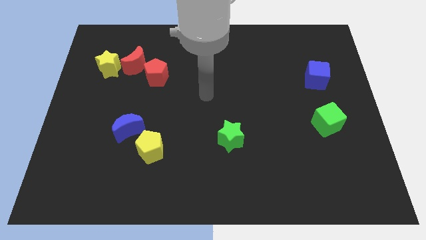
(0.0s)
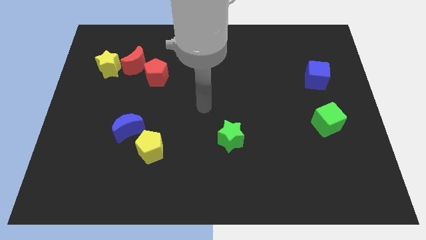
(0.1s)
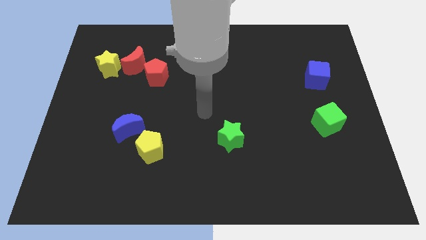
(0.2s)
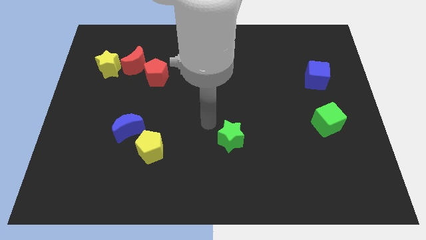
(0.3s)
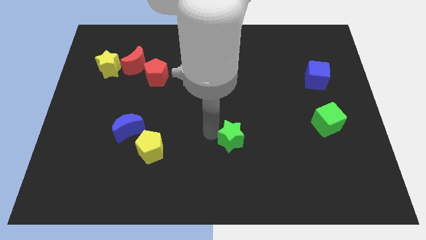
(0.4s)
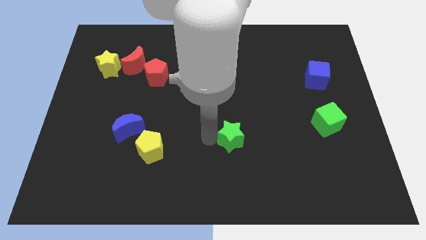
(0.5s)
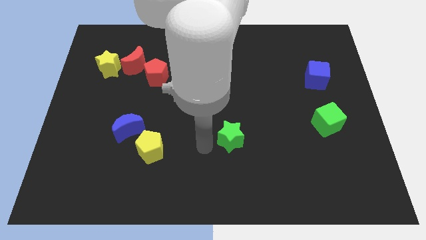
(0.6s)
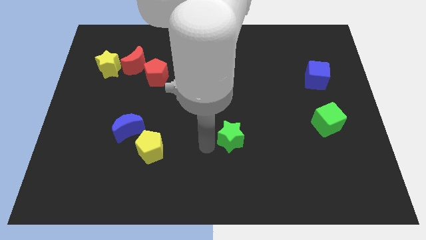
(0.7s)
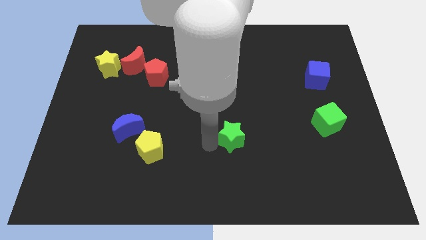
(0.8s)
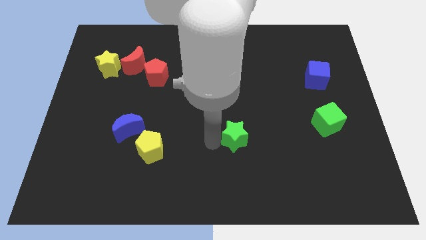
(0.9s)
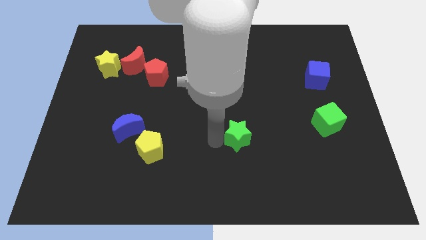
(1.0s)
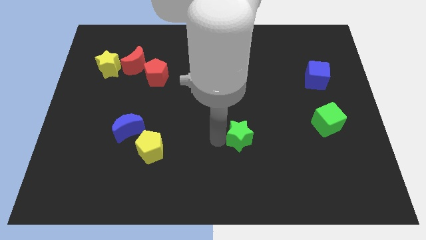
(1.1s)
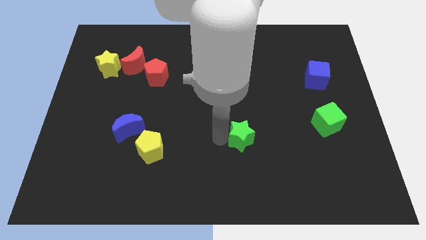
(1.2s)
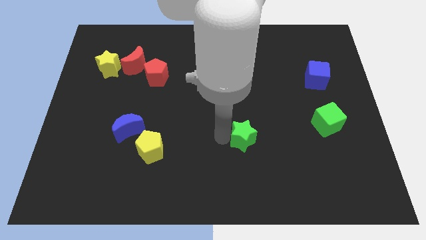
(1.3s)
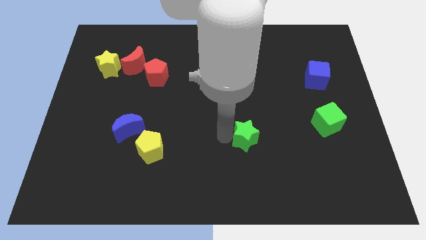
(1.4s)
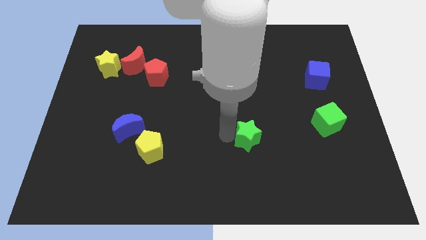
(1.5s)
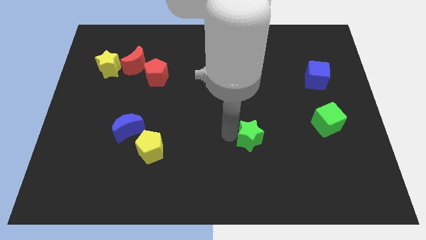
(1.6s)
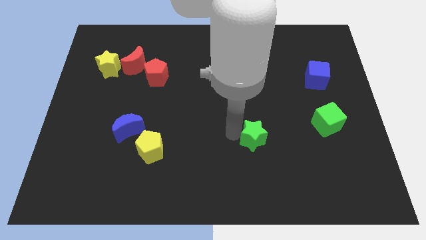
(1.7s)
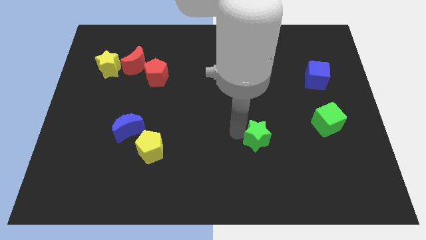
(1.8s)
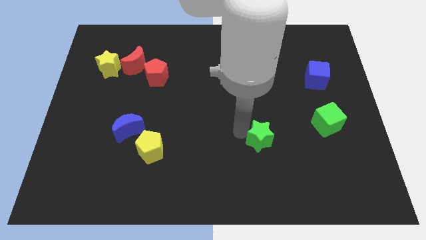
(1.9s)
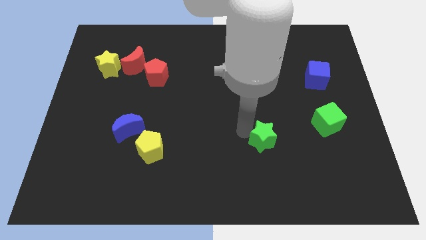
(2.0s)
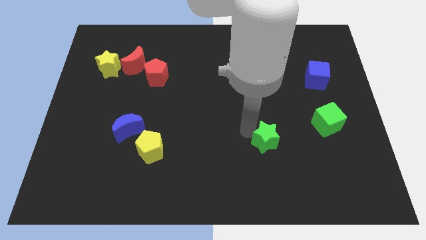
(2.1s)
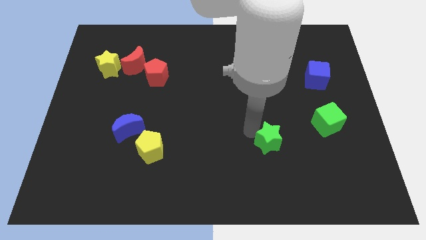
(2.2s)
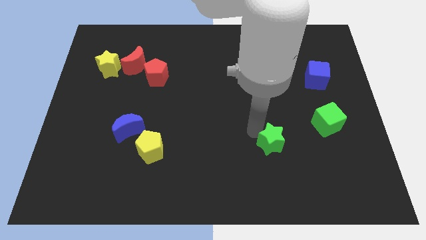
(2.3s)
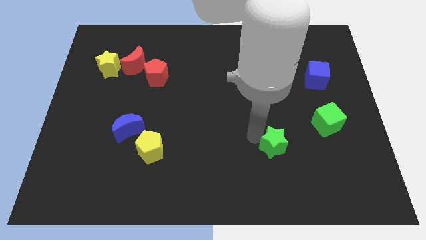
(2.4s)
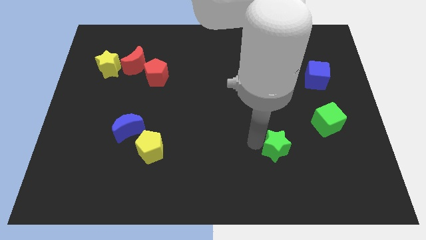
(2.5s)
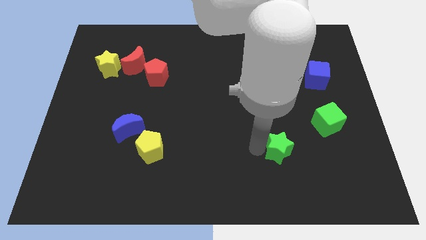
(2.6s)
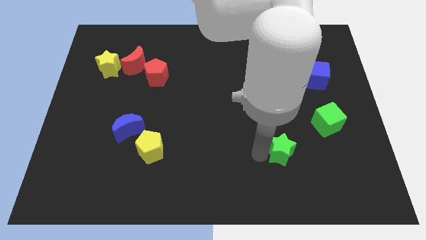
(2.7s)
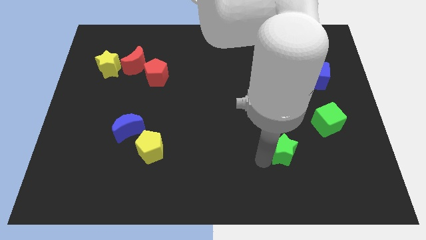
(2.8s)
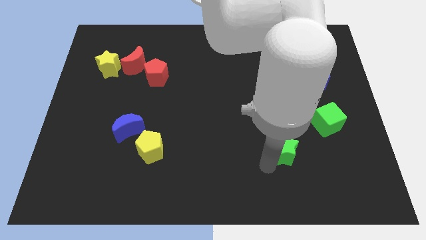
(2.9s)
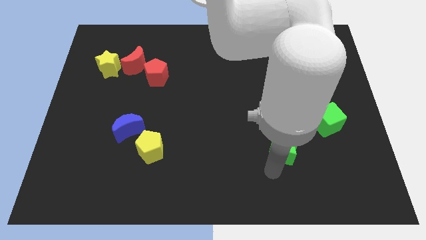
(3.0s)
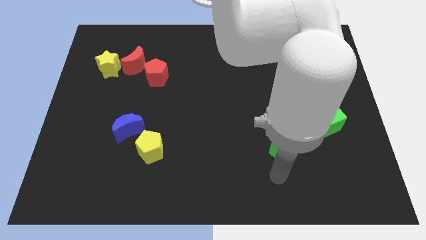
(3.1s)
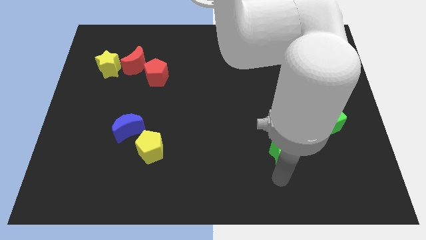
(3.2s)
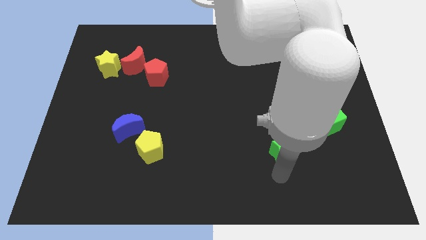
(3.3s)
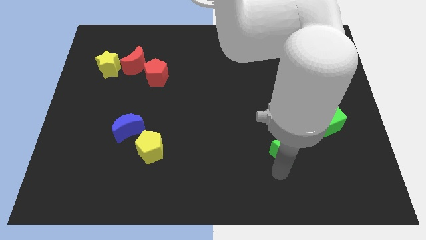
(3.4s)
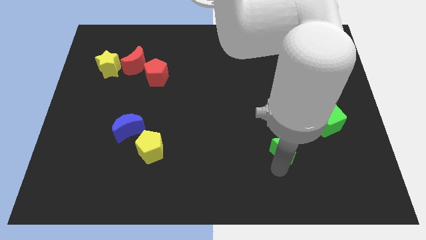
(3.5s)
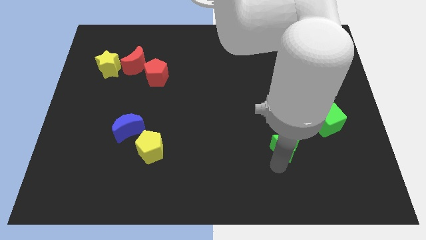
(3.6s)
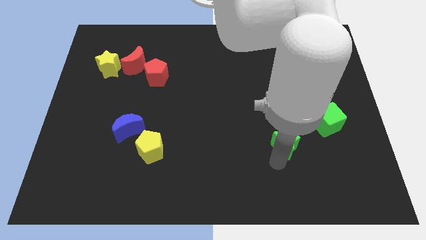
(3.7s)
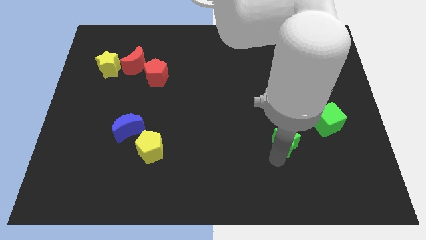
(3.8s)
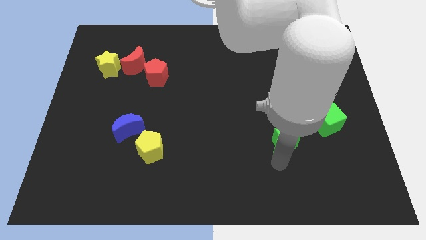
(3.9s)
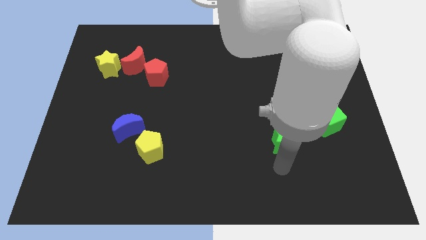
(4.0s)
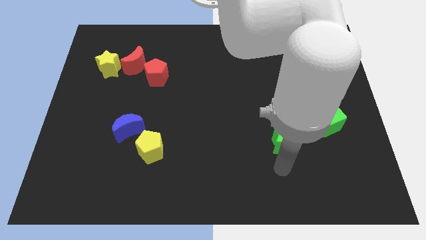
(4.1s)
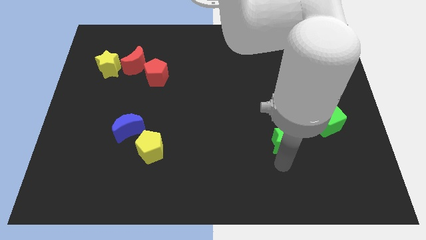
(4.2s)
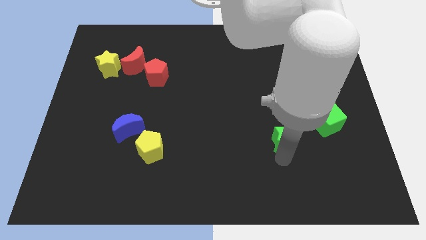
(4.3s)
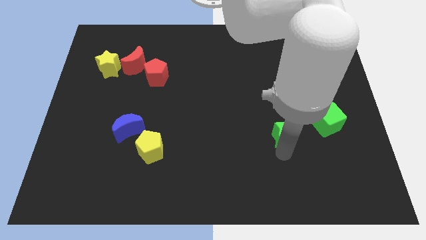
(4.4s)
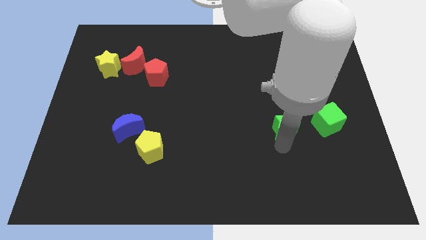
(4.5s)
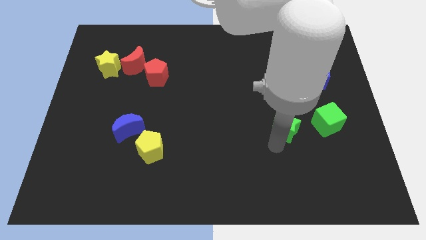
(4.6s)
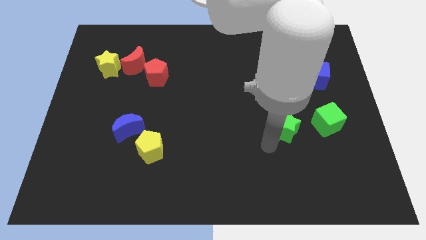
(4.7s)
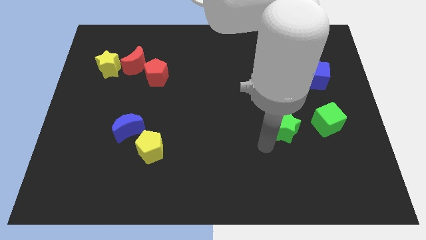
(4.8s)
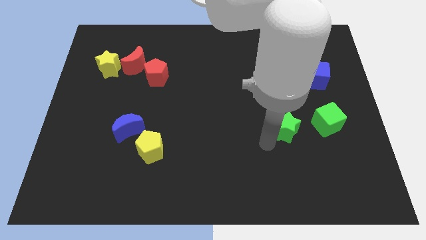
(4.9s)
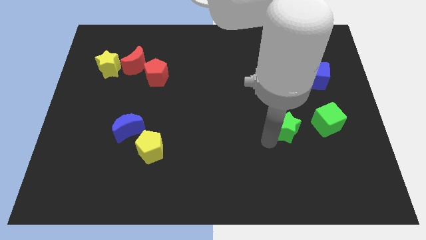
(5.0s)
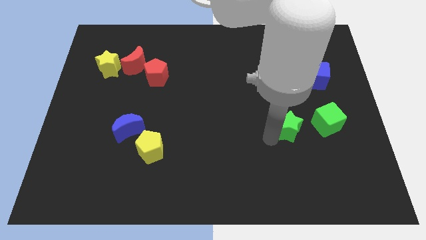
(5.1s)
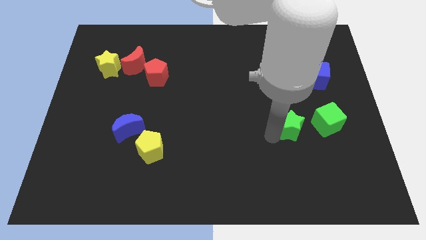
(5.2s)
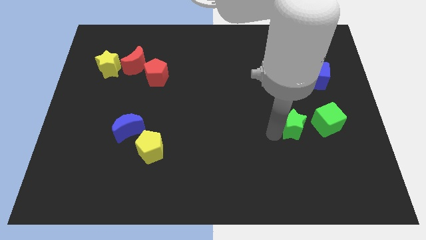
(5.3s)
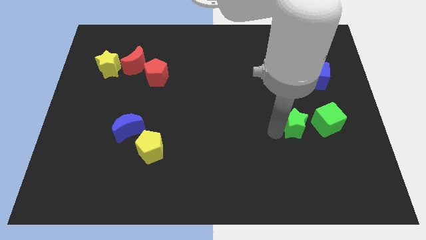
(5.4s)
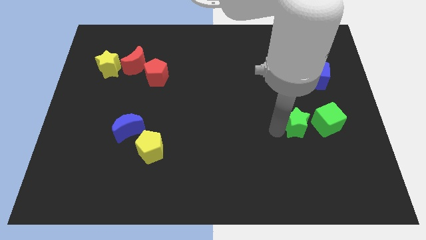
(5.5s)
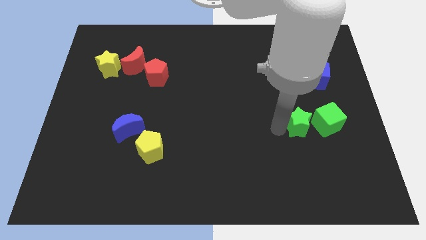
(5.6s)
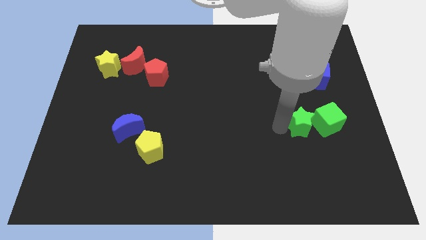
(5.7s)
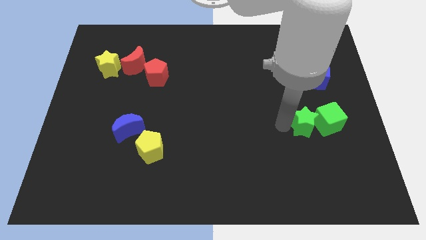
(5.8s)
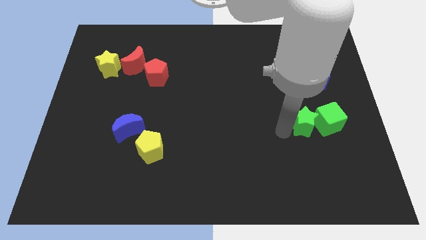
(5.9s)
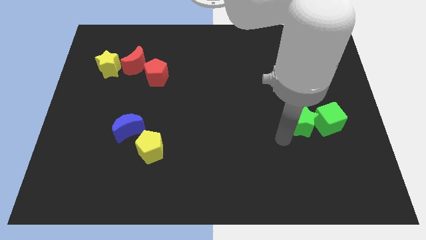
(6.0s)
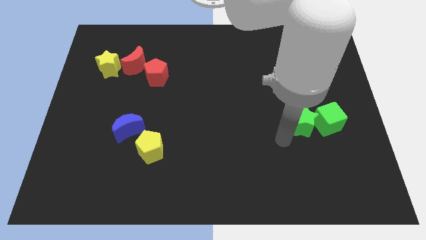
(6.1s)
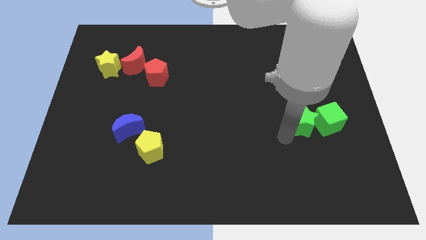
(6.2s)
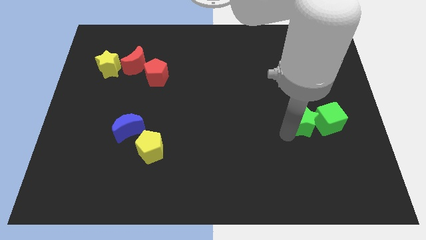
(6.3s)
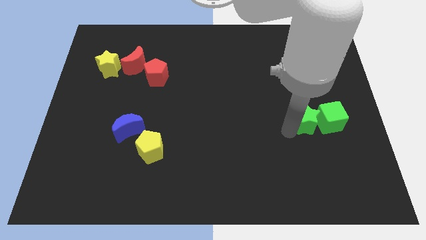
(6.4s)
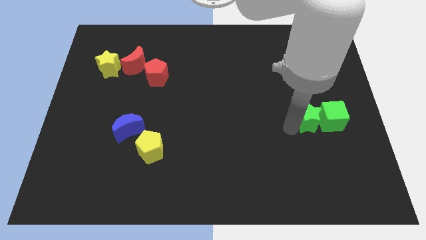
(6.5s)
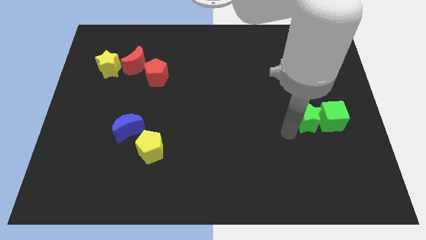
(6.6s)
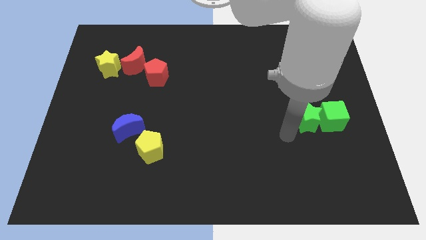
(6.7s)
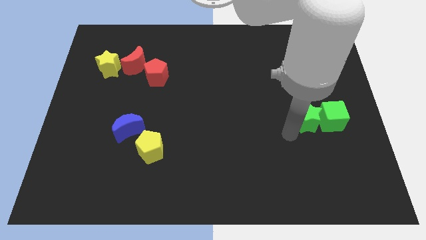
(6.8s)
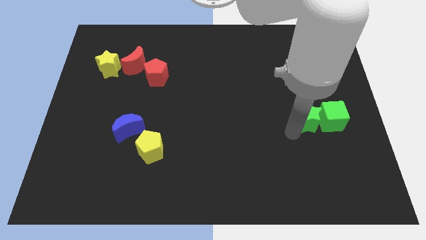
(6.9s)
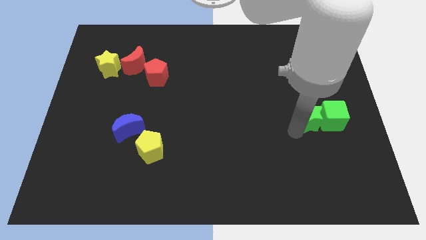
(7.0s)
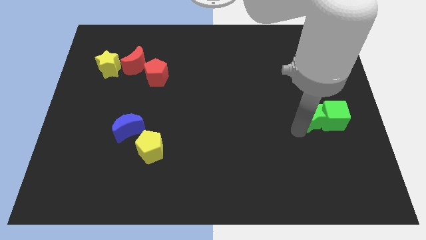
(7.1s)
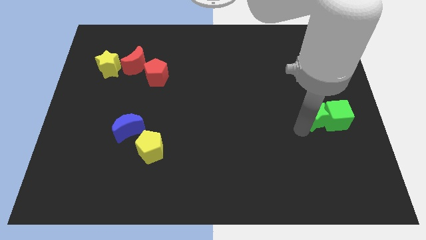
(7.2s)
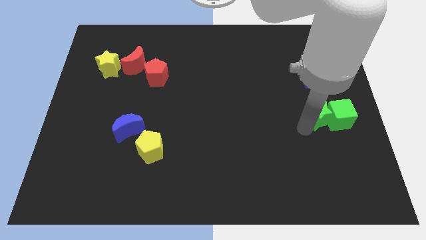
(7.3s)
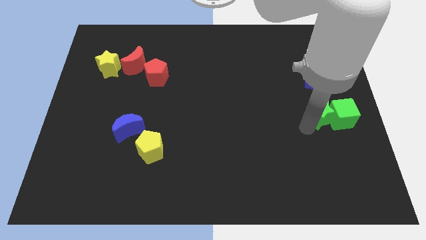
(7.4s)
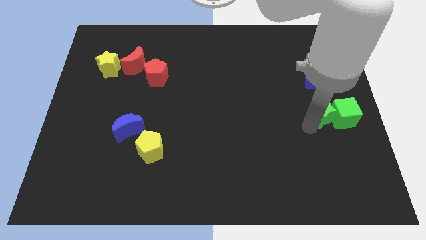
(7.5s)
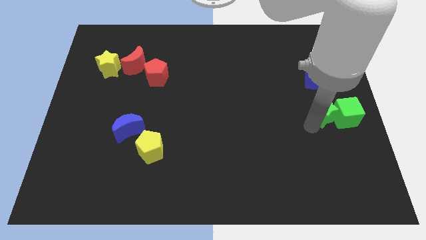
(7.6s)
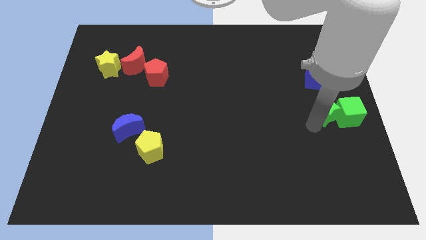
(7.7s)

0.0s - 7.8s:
push the green star to the right side
